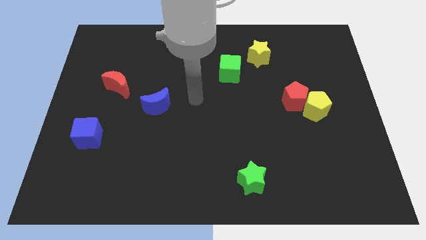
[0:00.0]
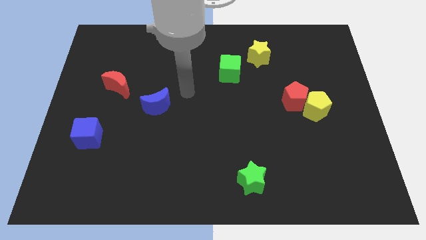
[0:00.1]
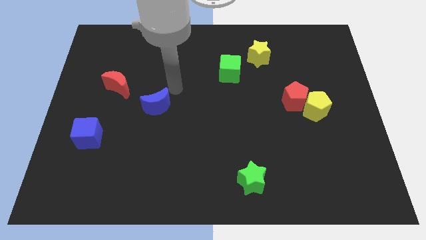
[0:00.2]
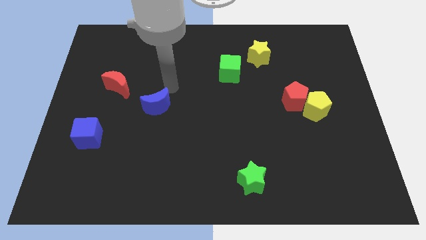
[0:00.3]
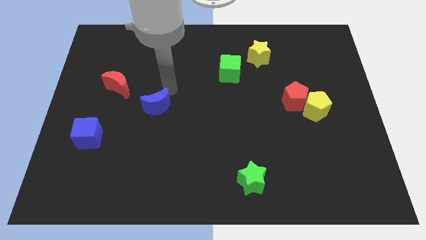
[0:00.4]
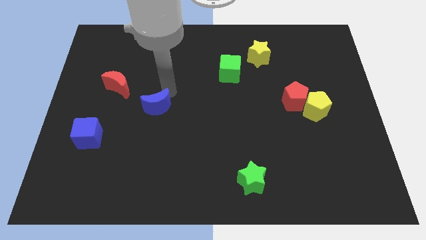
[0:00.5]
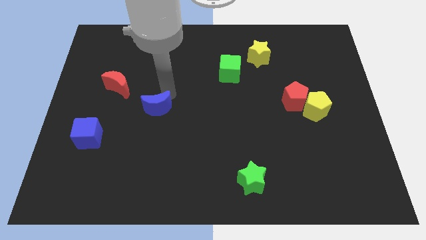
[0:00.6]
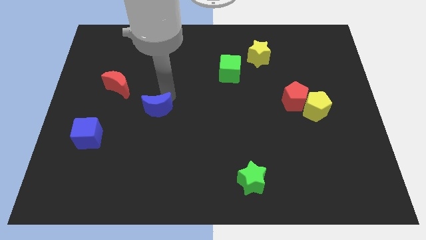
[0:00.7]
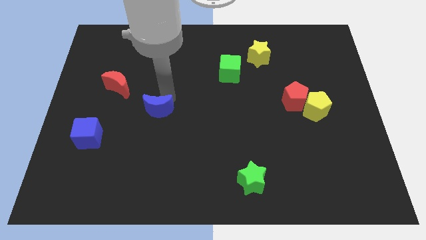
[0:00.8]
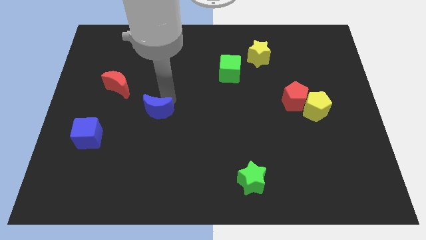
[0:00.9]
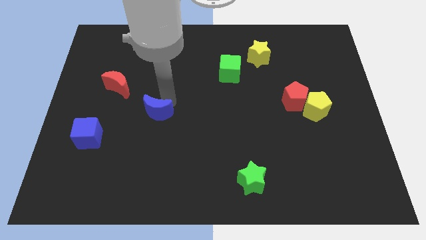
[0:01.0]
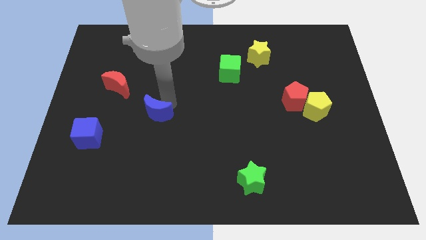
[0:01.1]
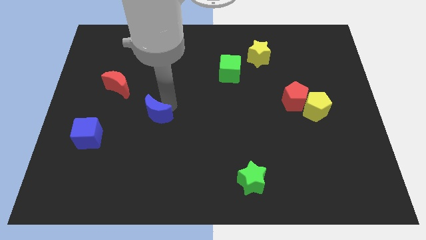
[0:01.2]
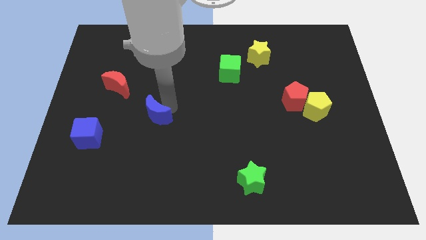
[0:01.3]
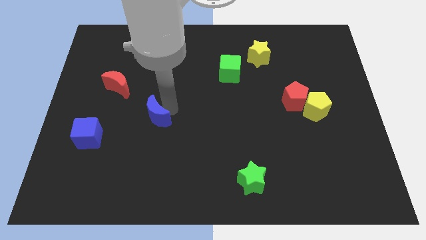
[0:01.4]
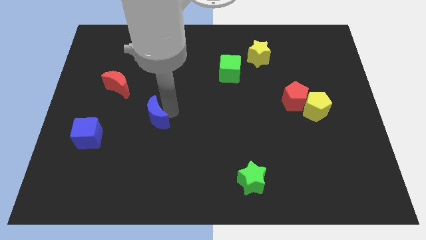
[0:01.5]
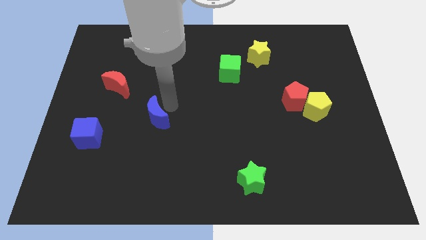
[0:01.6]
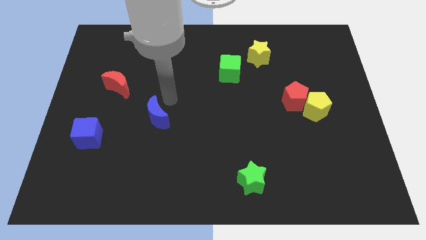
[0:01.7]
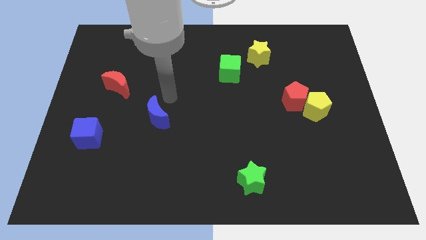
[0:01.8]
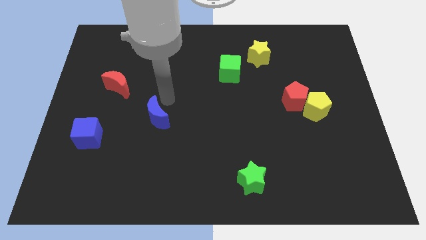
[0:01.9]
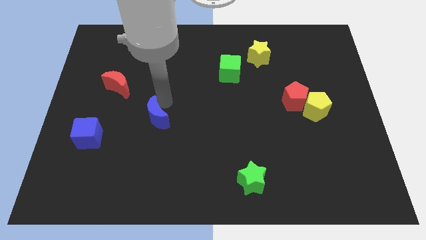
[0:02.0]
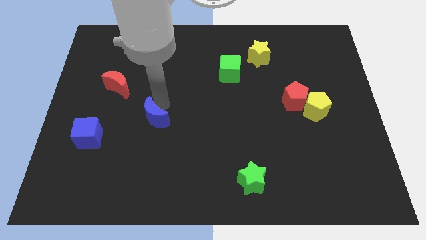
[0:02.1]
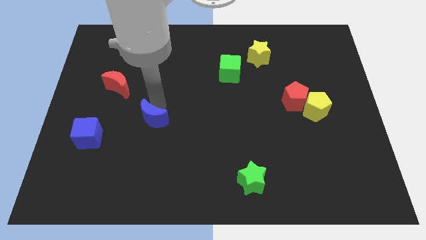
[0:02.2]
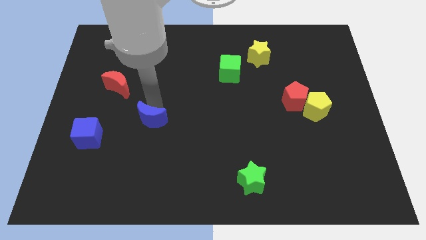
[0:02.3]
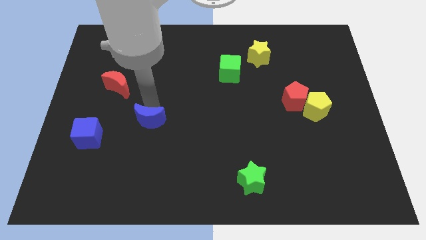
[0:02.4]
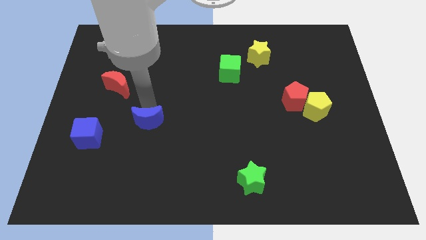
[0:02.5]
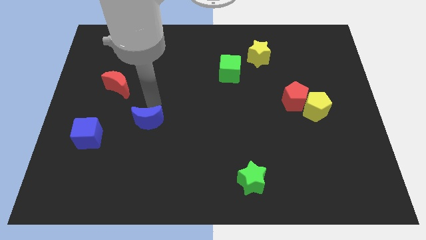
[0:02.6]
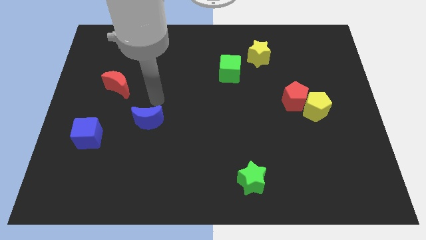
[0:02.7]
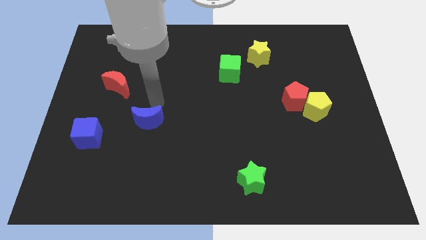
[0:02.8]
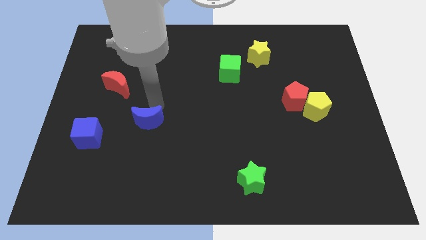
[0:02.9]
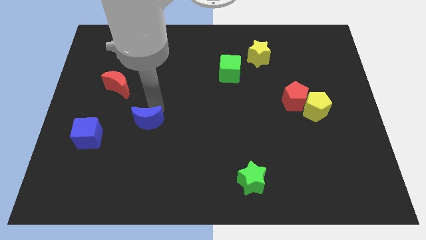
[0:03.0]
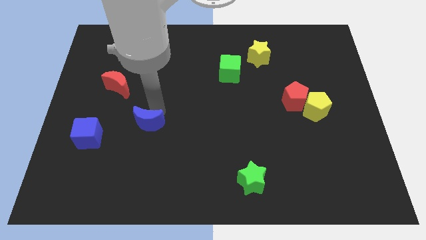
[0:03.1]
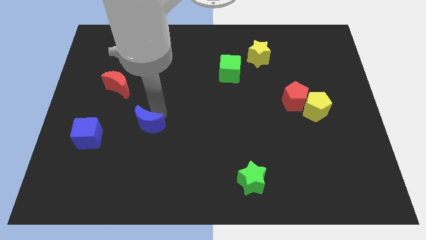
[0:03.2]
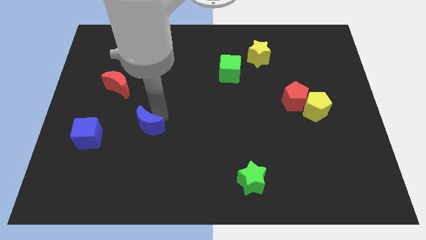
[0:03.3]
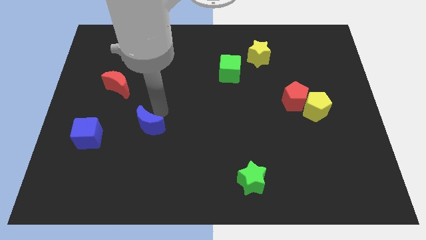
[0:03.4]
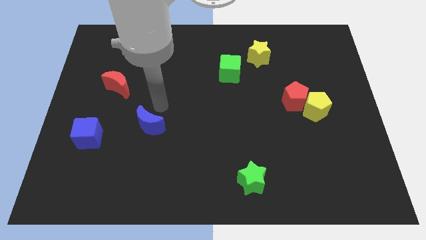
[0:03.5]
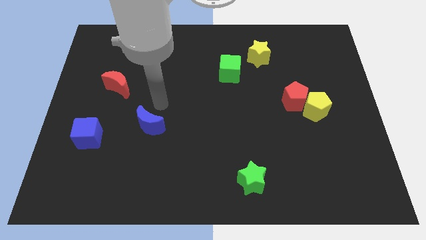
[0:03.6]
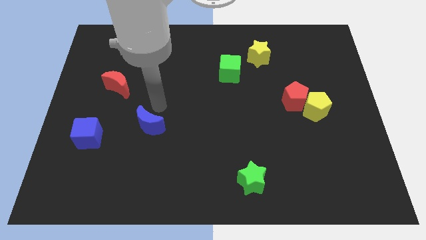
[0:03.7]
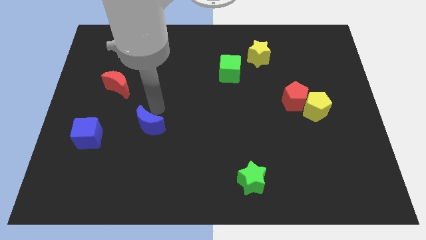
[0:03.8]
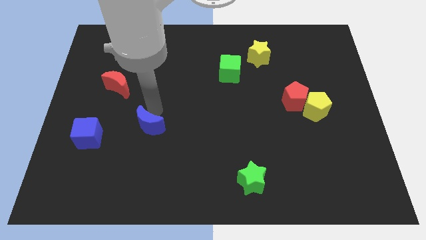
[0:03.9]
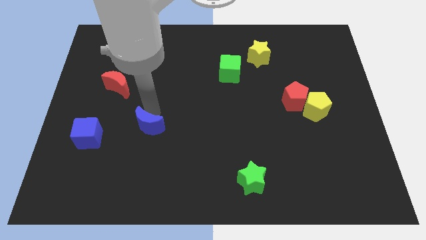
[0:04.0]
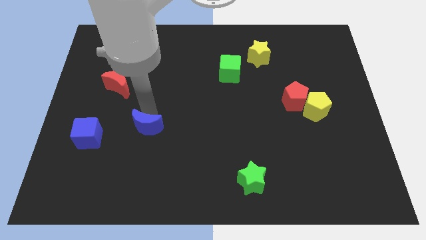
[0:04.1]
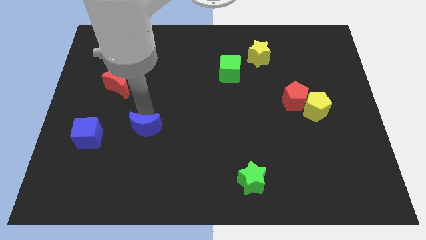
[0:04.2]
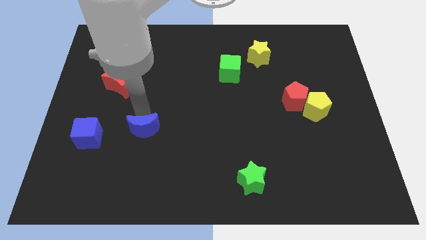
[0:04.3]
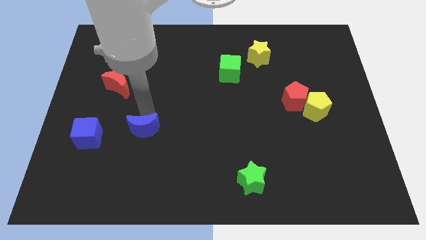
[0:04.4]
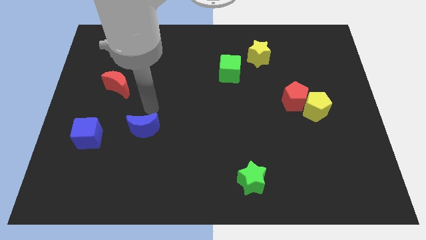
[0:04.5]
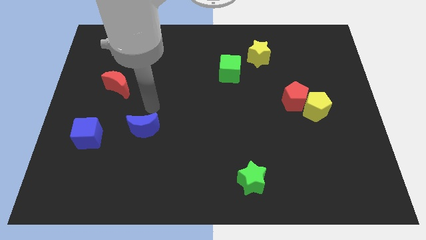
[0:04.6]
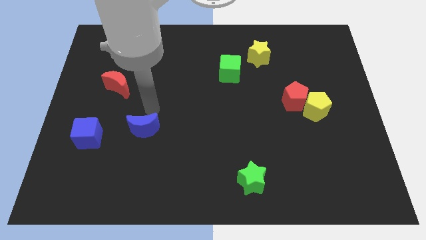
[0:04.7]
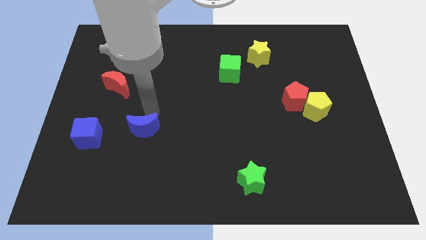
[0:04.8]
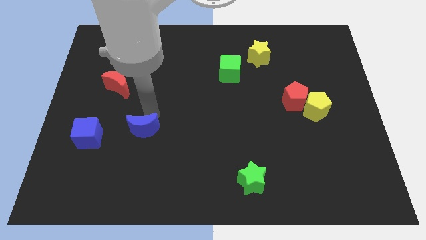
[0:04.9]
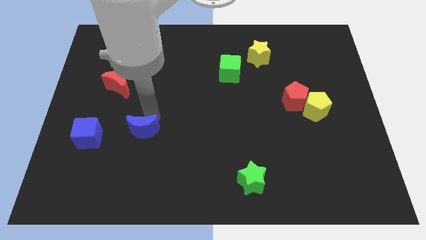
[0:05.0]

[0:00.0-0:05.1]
push the blue moon down slightly

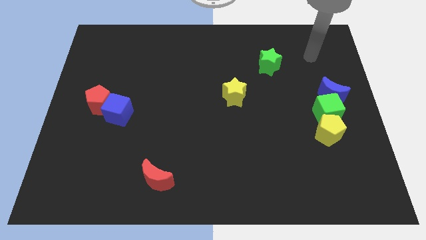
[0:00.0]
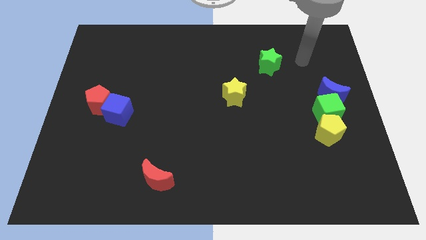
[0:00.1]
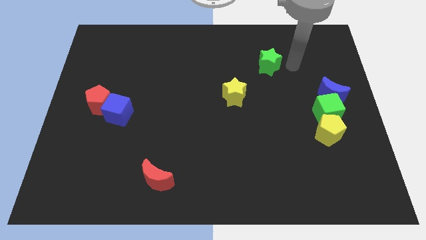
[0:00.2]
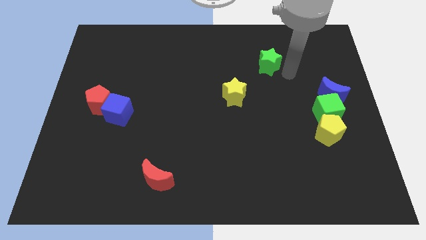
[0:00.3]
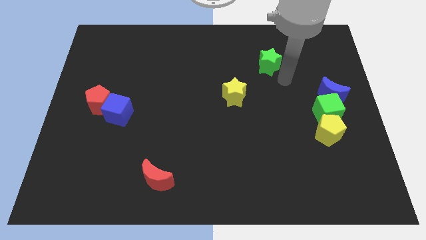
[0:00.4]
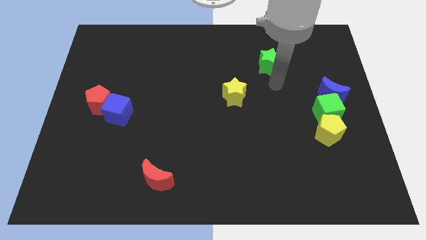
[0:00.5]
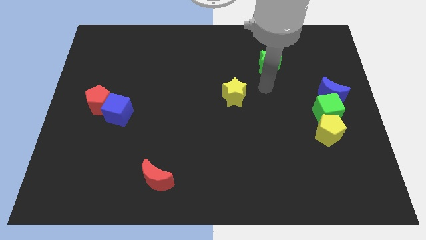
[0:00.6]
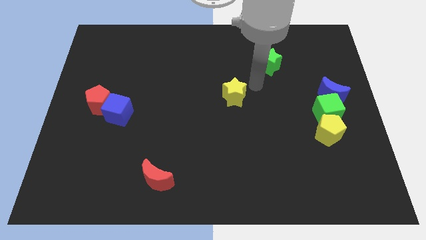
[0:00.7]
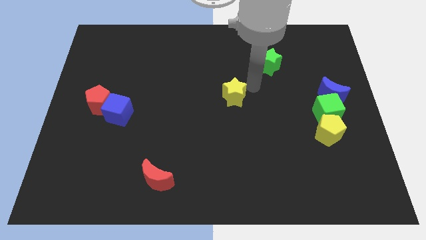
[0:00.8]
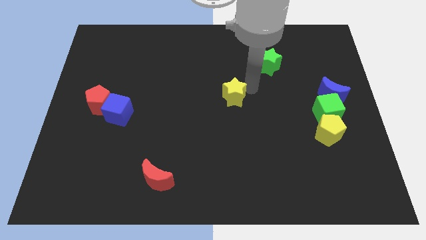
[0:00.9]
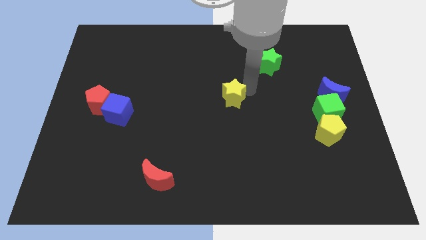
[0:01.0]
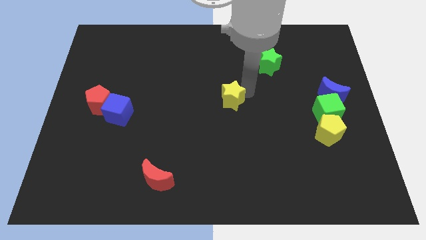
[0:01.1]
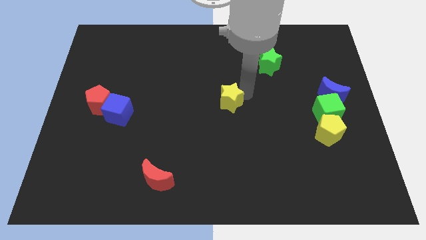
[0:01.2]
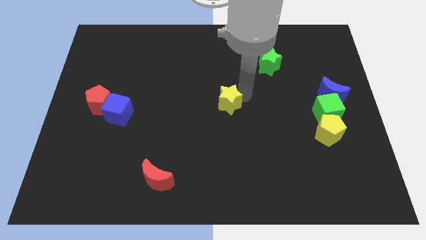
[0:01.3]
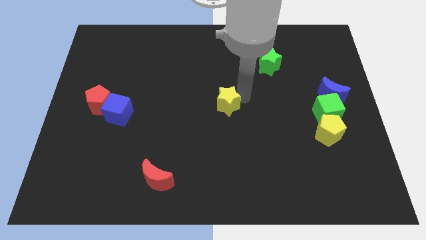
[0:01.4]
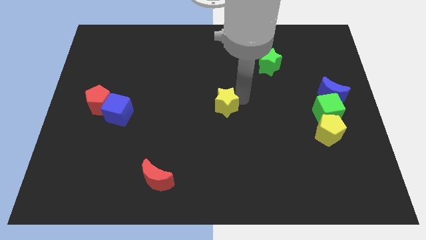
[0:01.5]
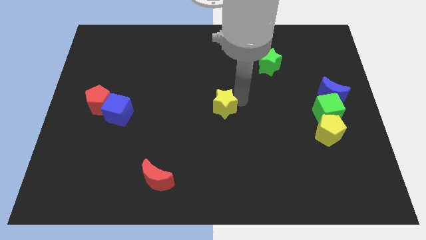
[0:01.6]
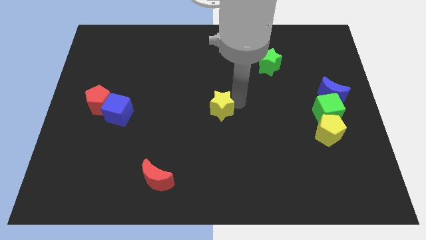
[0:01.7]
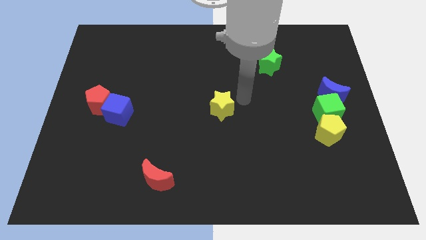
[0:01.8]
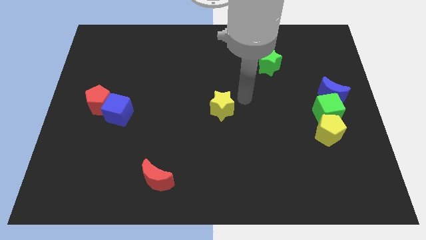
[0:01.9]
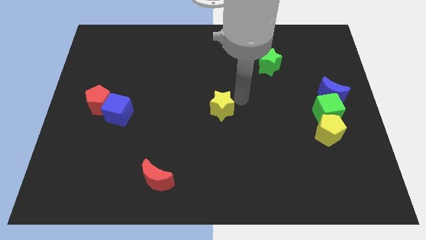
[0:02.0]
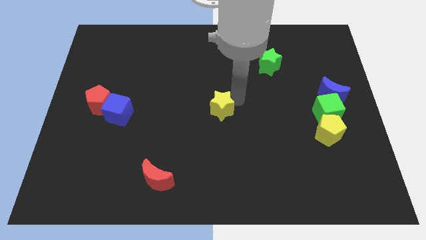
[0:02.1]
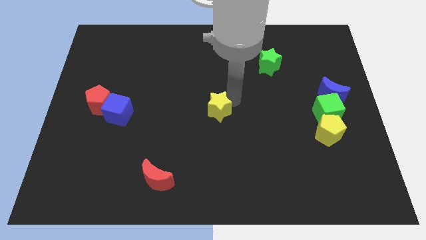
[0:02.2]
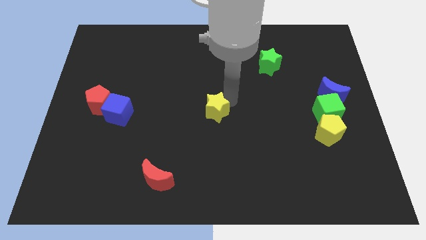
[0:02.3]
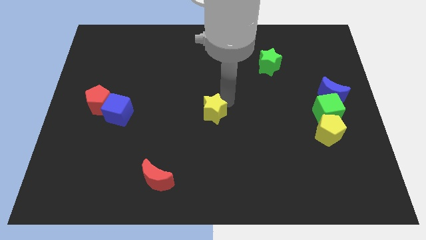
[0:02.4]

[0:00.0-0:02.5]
slightly move the yellow star downwards and to the left

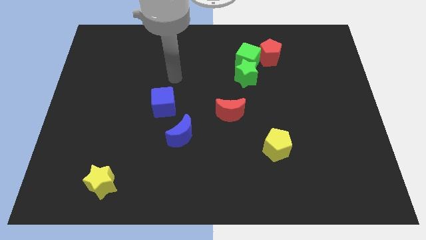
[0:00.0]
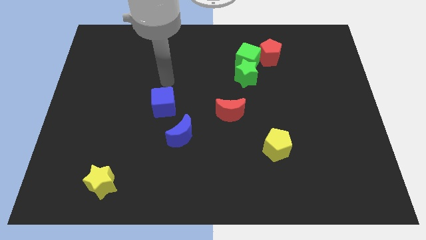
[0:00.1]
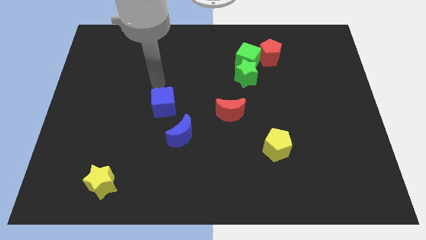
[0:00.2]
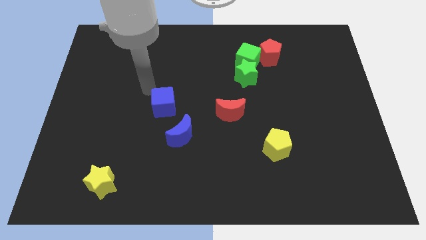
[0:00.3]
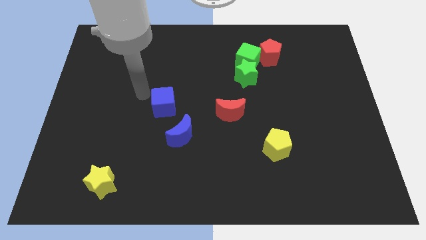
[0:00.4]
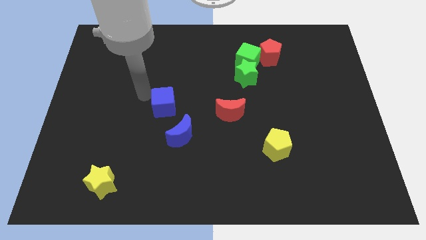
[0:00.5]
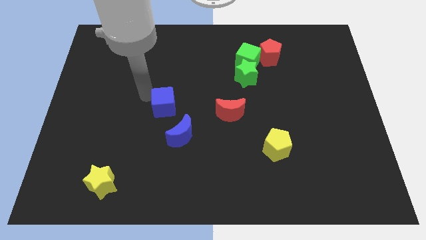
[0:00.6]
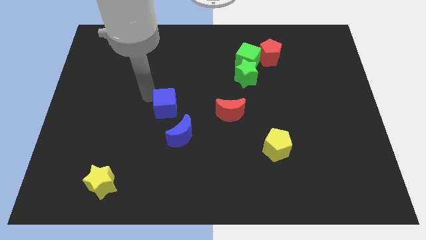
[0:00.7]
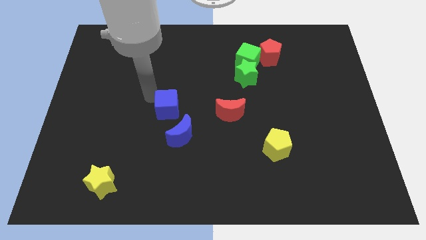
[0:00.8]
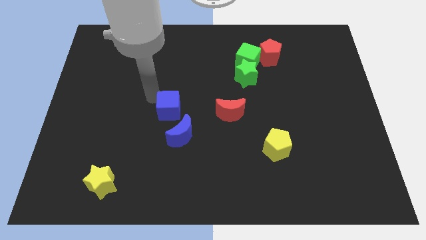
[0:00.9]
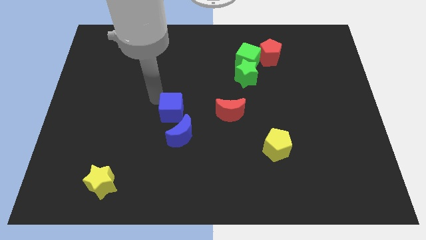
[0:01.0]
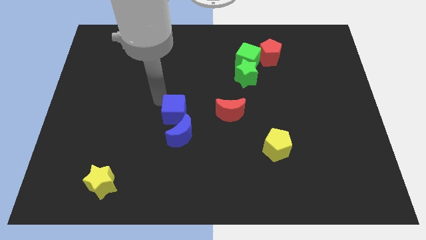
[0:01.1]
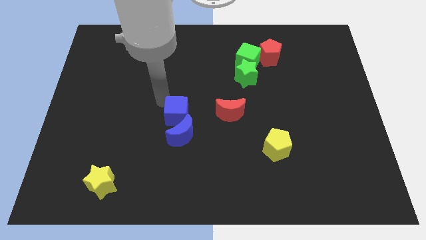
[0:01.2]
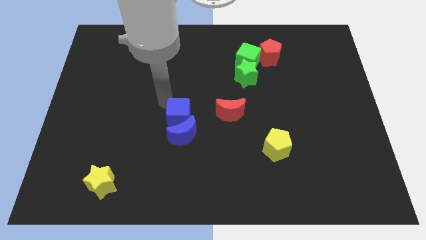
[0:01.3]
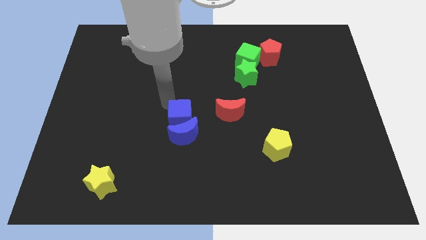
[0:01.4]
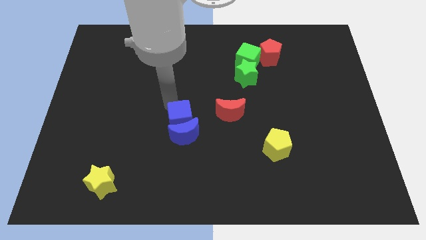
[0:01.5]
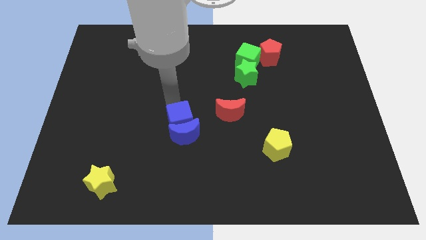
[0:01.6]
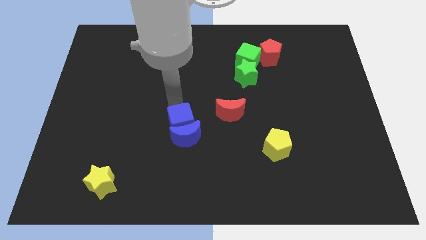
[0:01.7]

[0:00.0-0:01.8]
push the blue cube a little down and right diagonally
